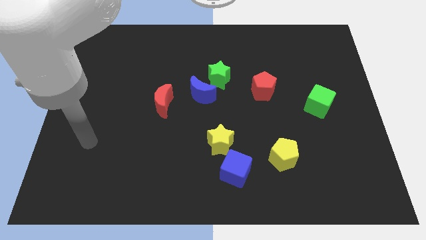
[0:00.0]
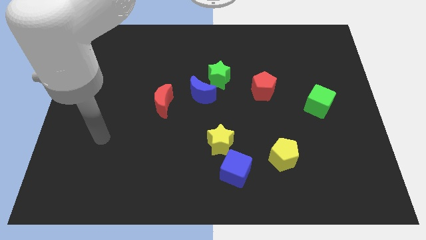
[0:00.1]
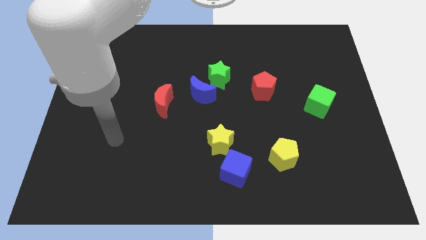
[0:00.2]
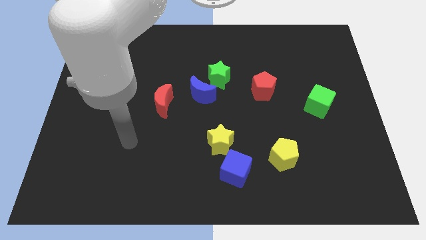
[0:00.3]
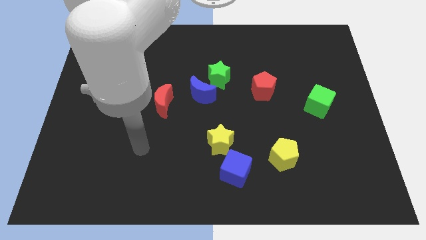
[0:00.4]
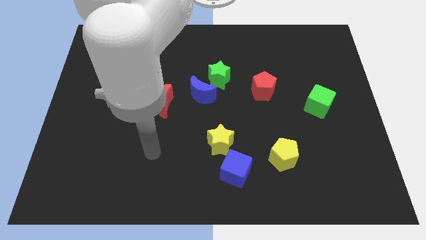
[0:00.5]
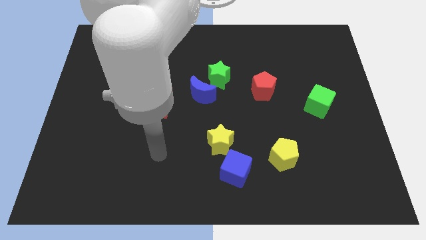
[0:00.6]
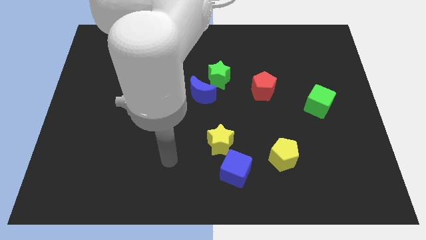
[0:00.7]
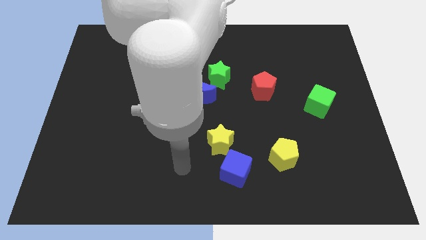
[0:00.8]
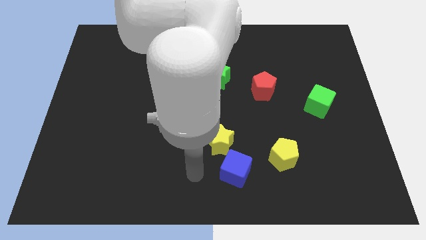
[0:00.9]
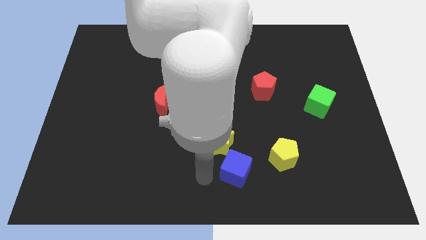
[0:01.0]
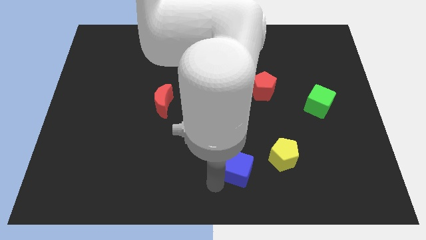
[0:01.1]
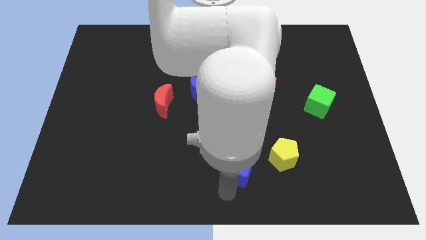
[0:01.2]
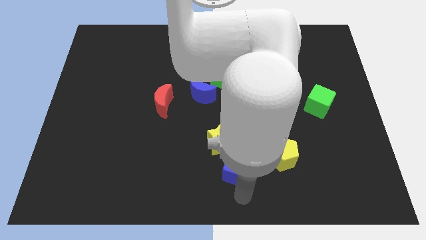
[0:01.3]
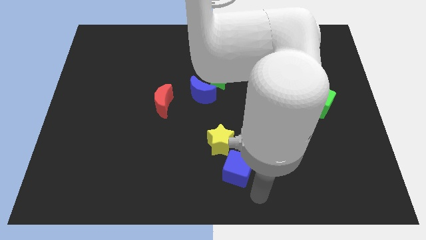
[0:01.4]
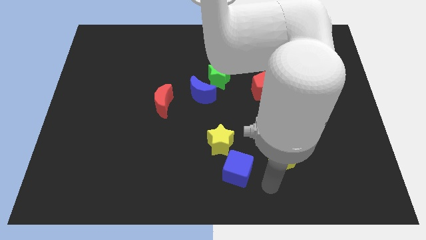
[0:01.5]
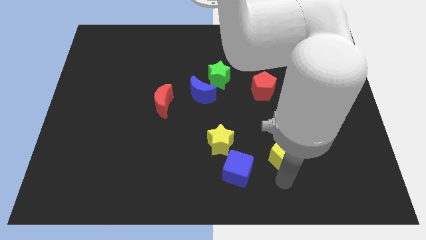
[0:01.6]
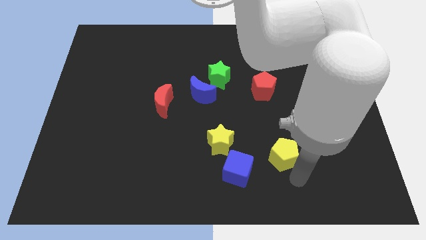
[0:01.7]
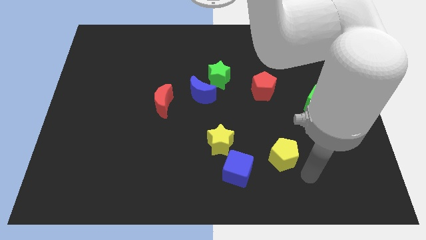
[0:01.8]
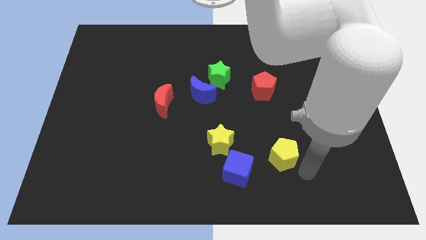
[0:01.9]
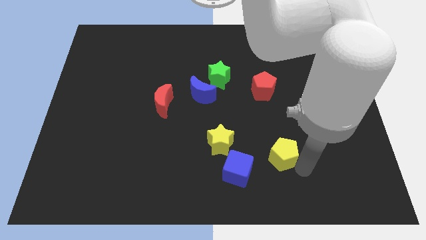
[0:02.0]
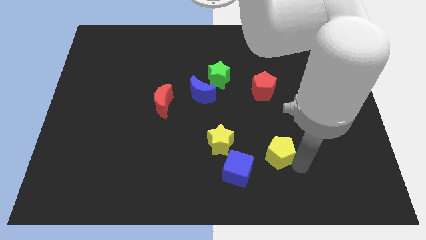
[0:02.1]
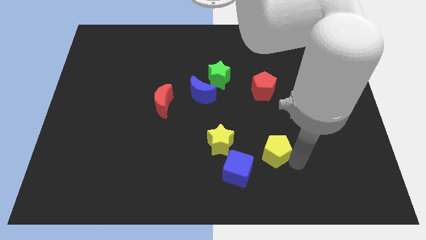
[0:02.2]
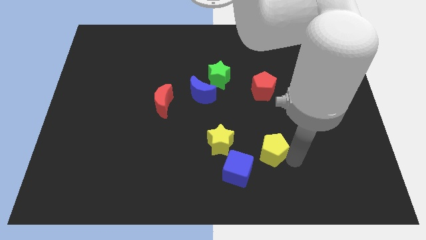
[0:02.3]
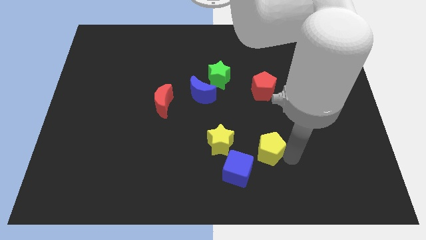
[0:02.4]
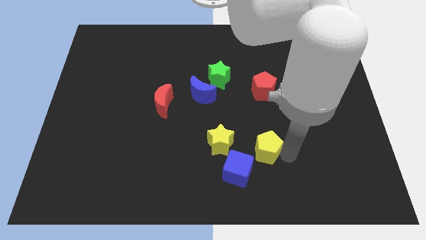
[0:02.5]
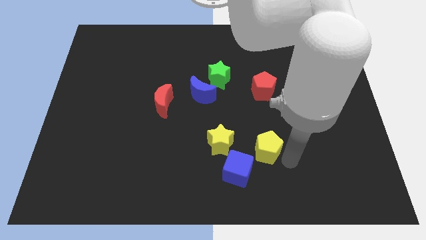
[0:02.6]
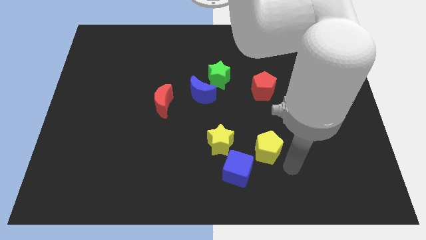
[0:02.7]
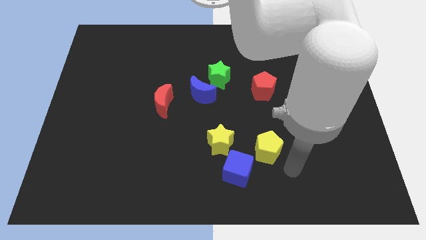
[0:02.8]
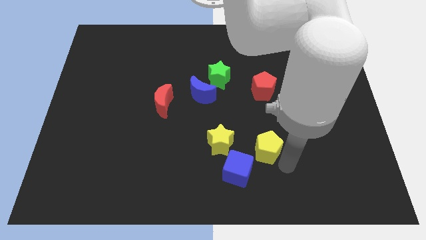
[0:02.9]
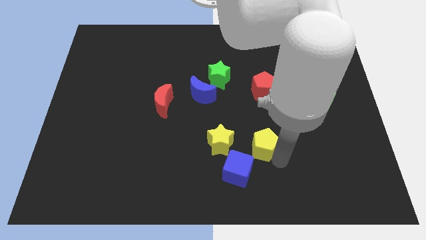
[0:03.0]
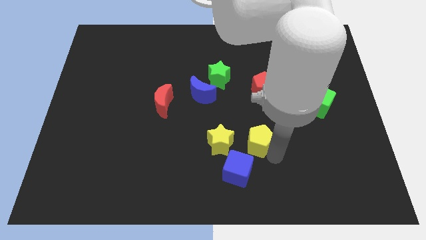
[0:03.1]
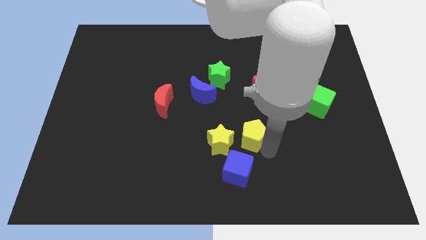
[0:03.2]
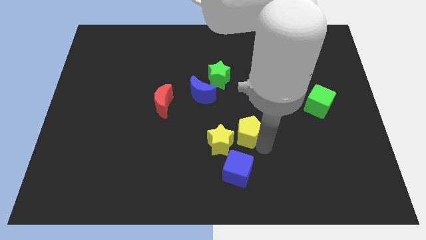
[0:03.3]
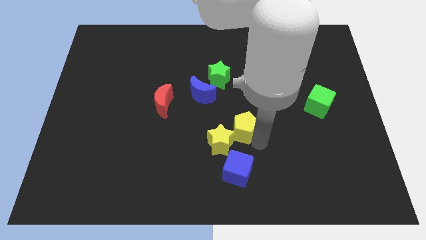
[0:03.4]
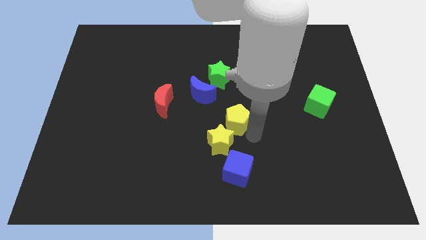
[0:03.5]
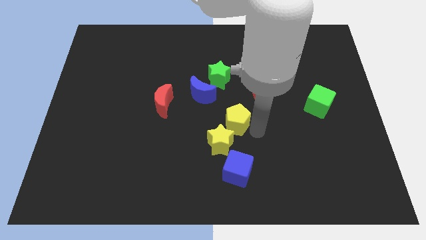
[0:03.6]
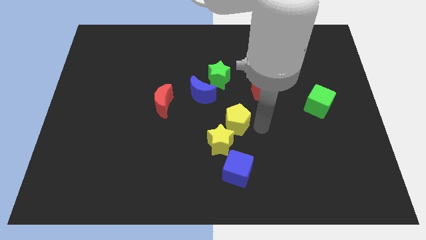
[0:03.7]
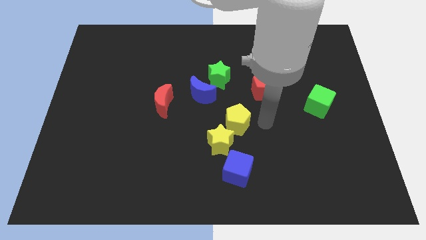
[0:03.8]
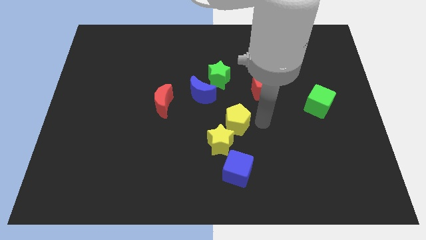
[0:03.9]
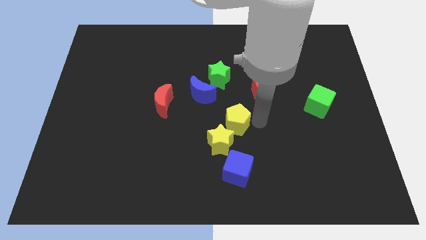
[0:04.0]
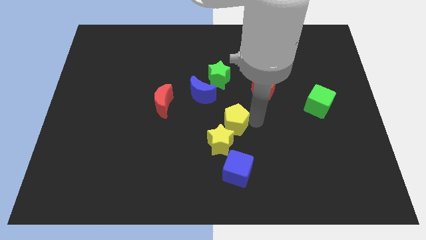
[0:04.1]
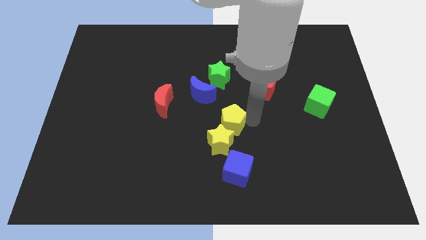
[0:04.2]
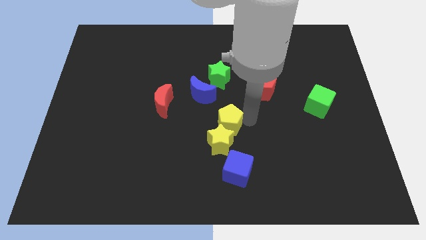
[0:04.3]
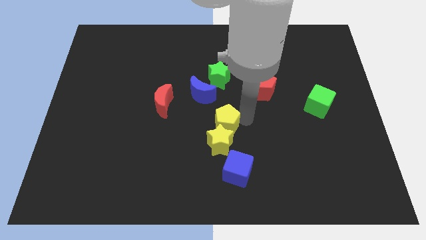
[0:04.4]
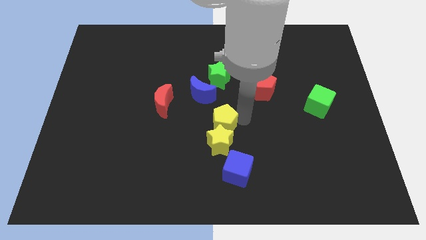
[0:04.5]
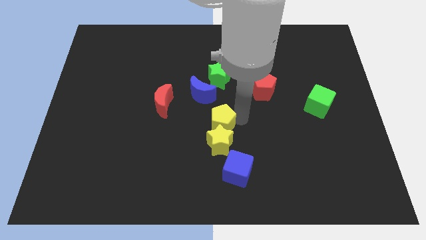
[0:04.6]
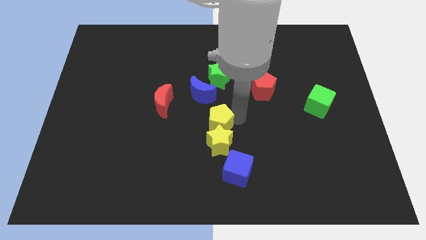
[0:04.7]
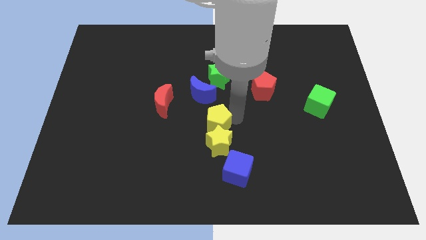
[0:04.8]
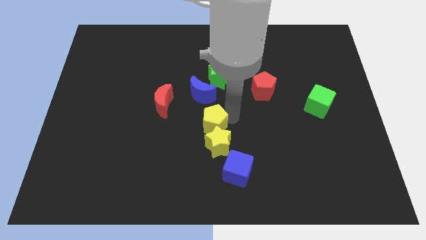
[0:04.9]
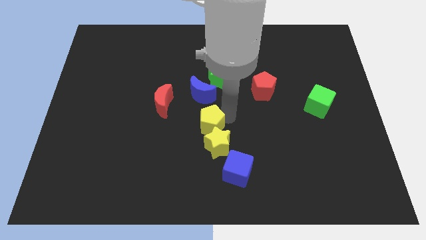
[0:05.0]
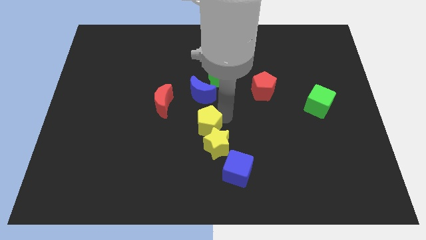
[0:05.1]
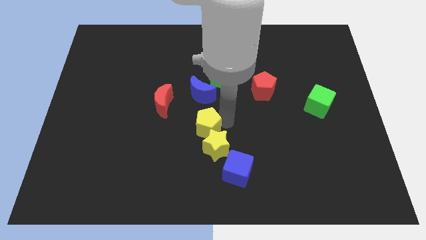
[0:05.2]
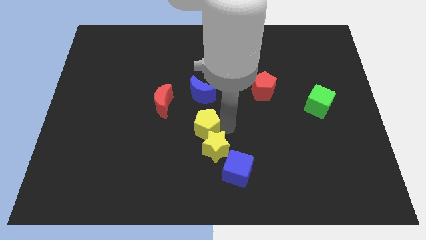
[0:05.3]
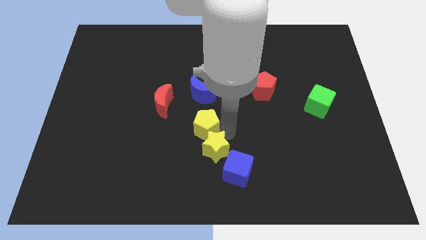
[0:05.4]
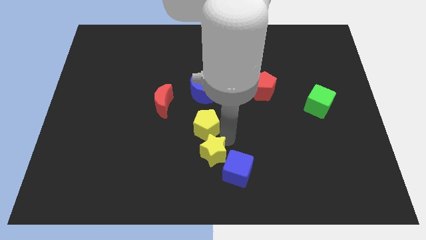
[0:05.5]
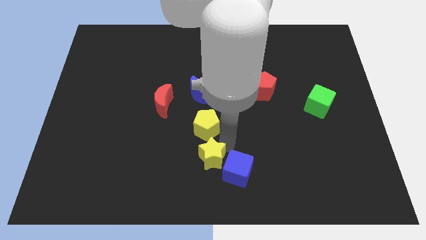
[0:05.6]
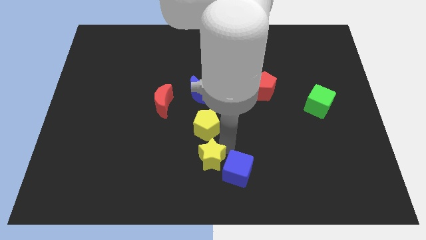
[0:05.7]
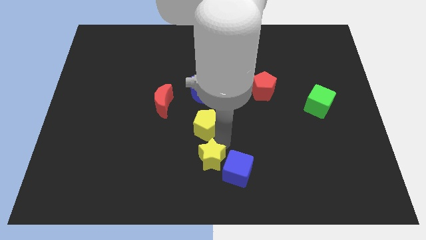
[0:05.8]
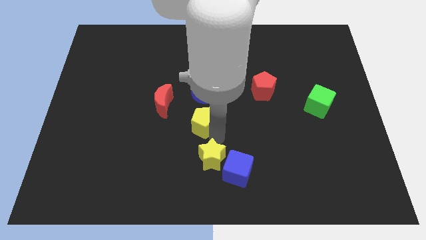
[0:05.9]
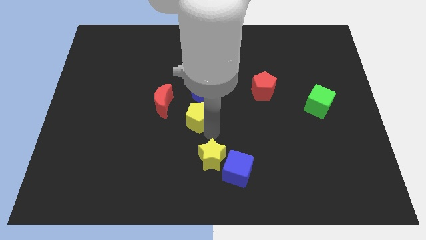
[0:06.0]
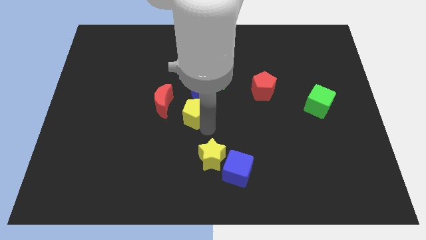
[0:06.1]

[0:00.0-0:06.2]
push the yellow pentagon diagonally up and left

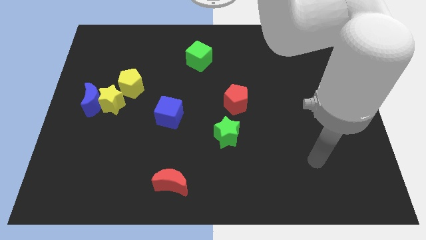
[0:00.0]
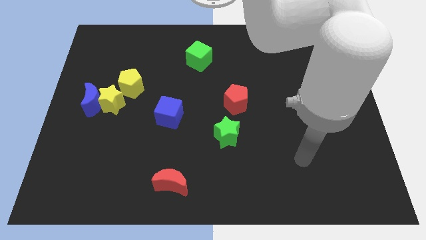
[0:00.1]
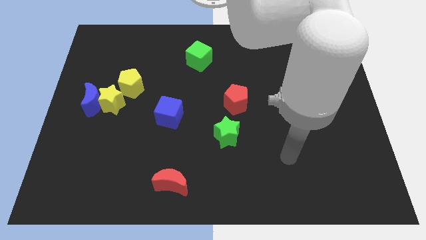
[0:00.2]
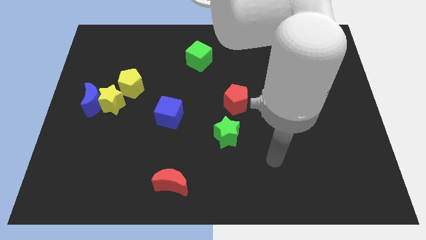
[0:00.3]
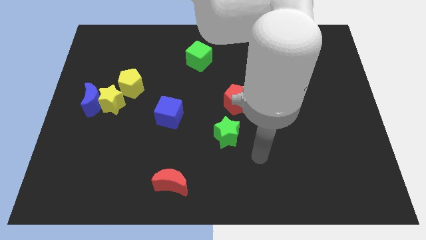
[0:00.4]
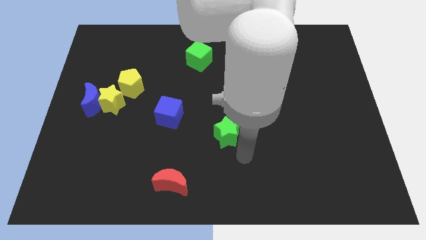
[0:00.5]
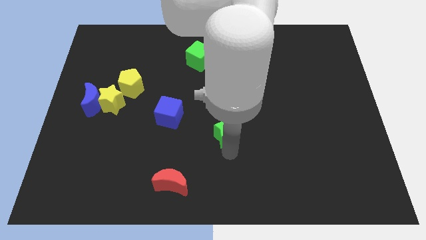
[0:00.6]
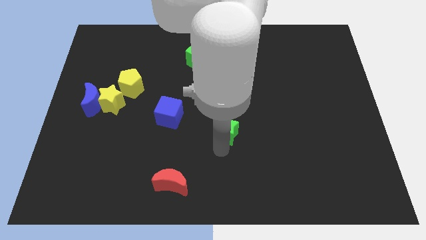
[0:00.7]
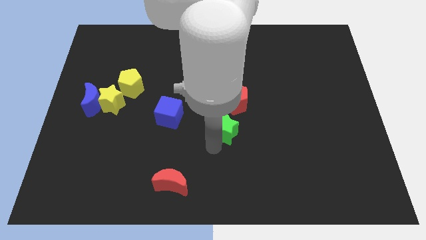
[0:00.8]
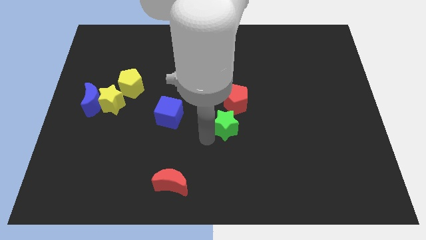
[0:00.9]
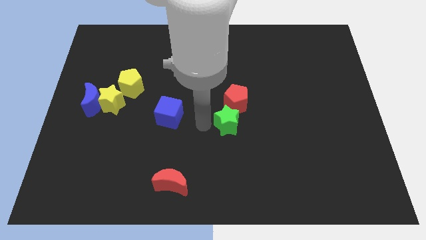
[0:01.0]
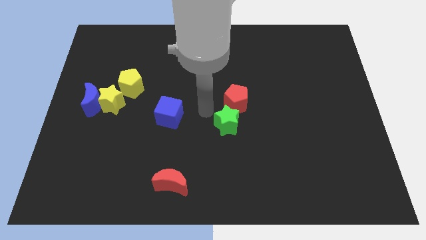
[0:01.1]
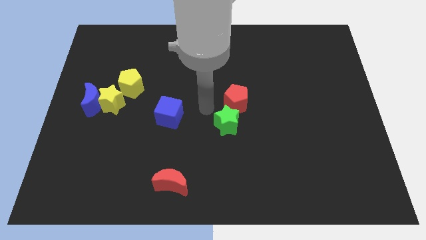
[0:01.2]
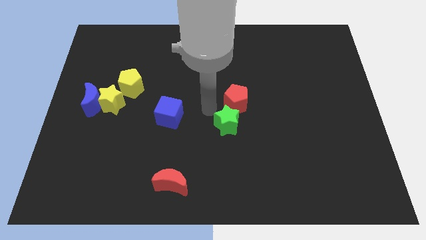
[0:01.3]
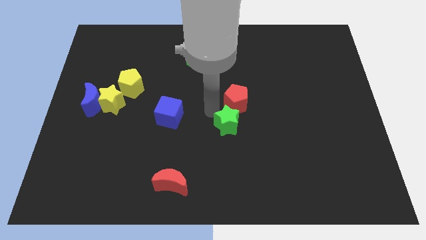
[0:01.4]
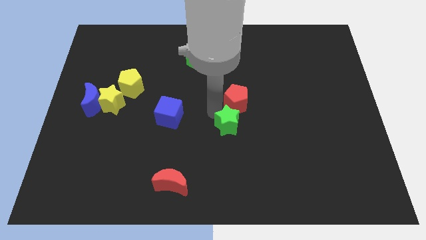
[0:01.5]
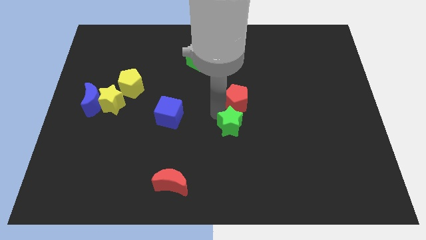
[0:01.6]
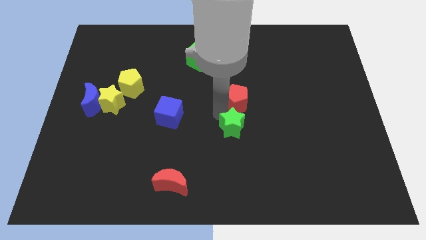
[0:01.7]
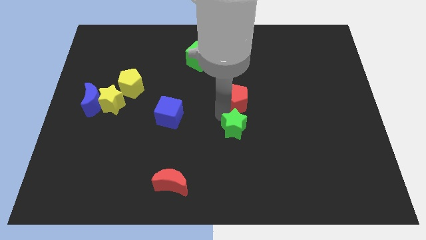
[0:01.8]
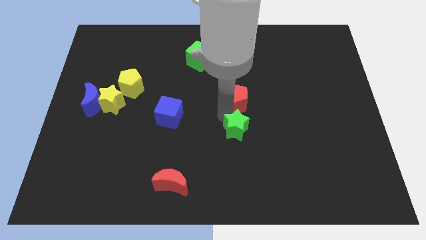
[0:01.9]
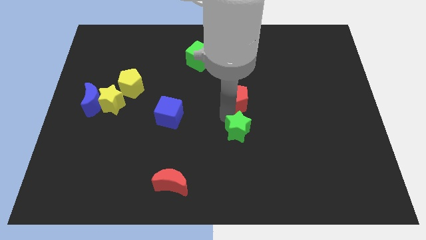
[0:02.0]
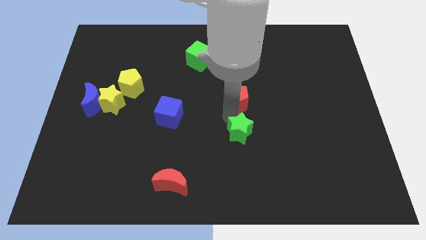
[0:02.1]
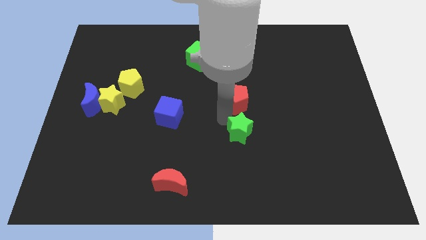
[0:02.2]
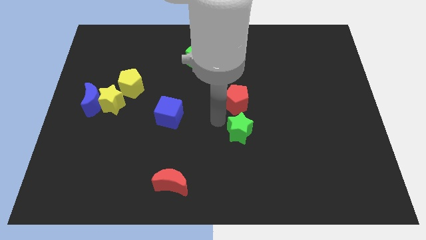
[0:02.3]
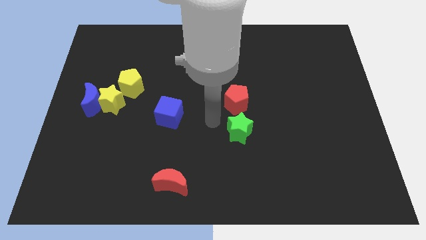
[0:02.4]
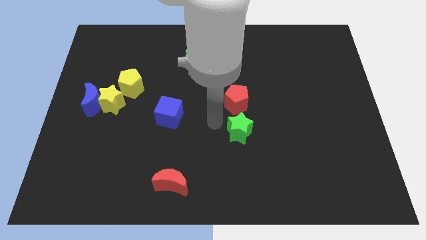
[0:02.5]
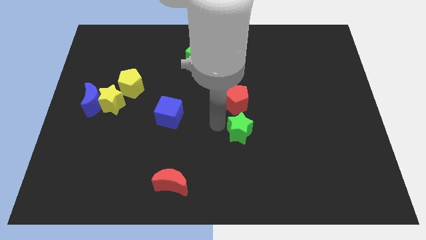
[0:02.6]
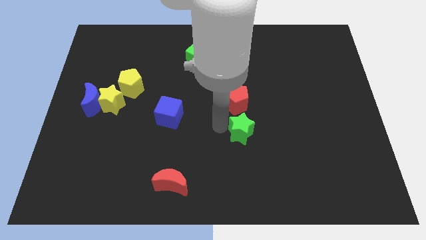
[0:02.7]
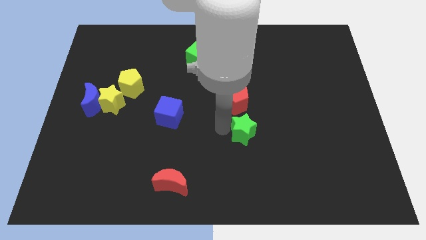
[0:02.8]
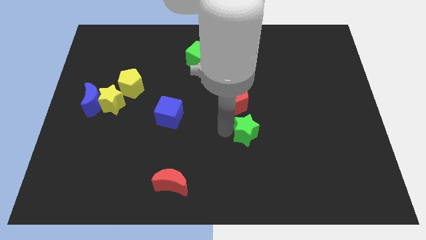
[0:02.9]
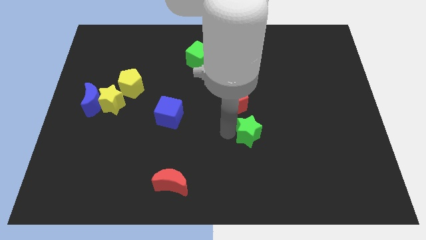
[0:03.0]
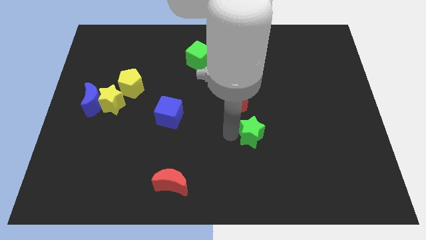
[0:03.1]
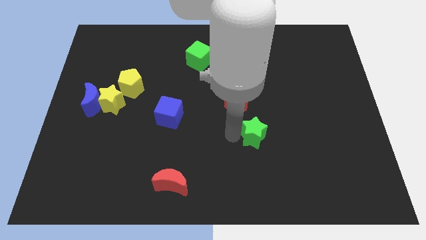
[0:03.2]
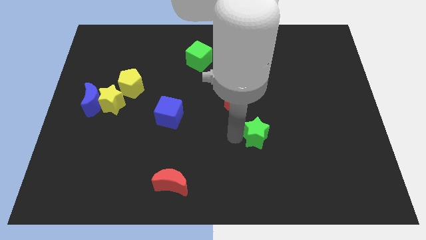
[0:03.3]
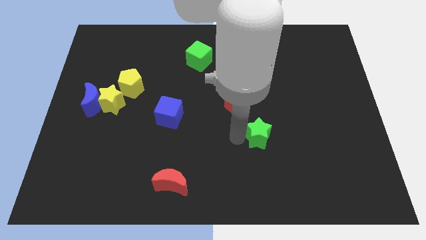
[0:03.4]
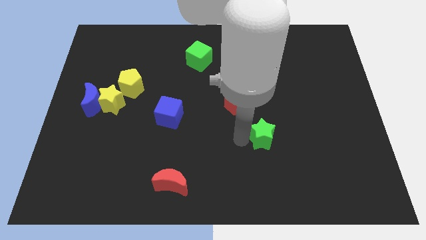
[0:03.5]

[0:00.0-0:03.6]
slightly slide the green star right
